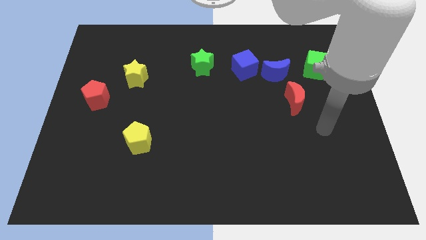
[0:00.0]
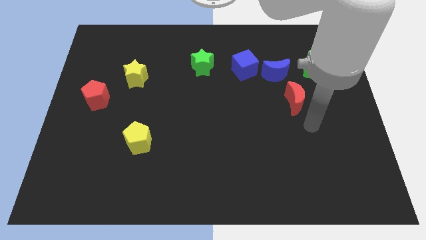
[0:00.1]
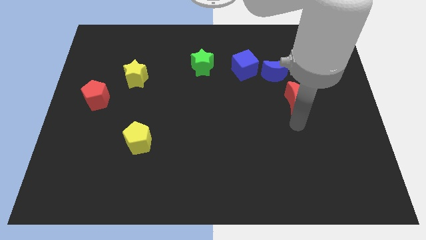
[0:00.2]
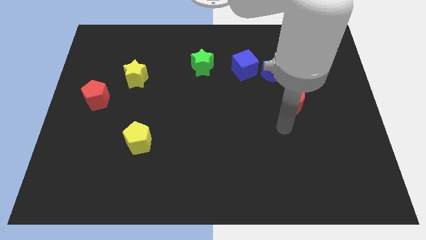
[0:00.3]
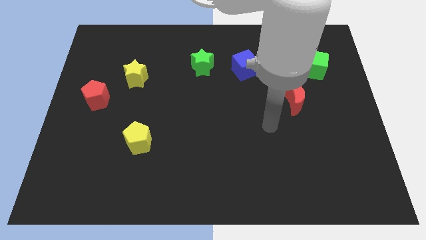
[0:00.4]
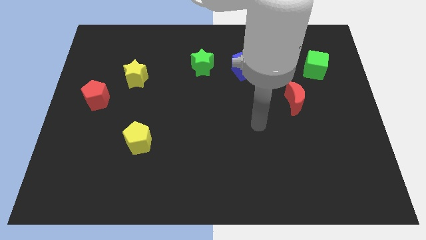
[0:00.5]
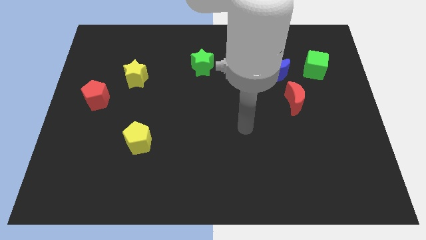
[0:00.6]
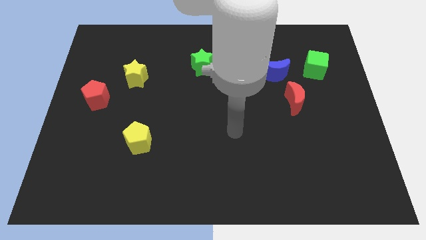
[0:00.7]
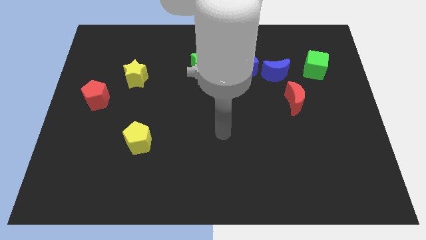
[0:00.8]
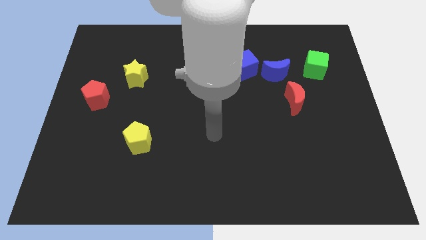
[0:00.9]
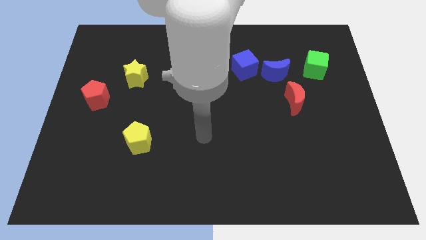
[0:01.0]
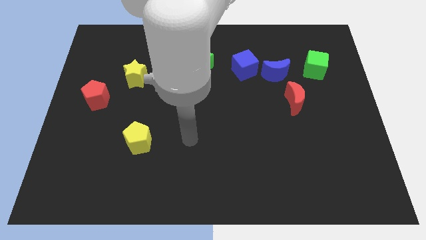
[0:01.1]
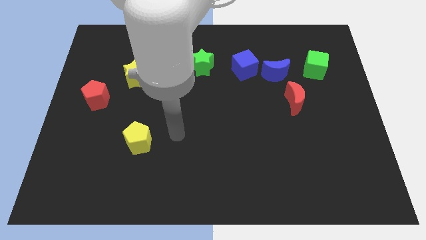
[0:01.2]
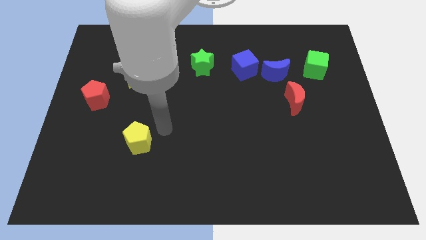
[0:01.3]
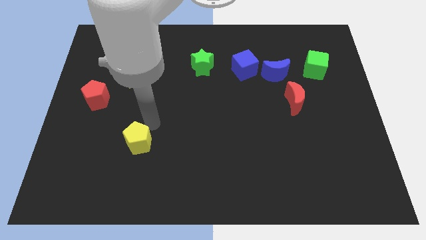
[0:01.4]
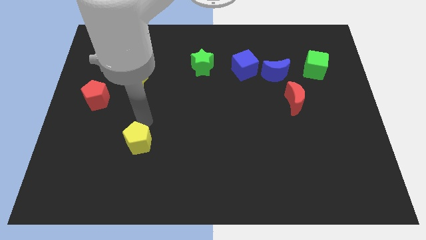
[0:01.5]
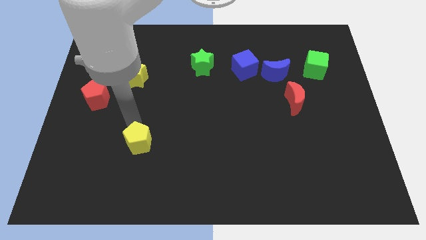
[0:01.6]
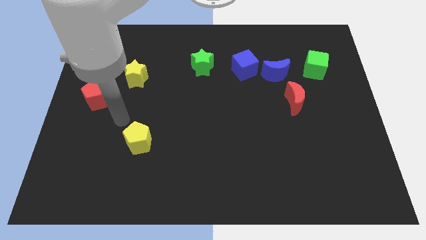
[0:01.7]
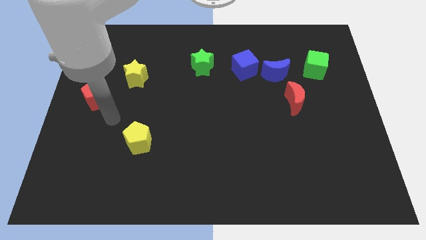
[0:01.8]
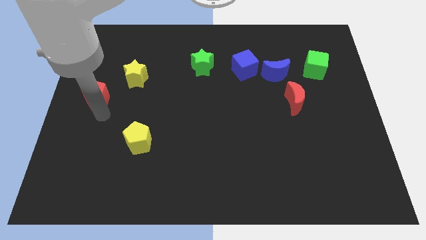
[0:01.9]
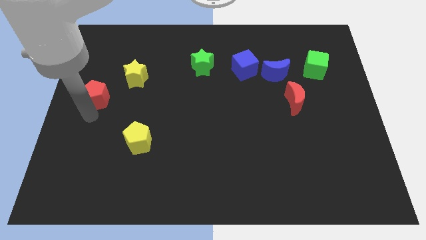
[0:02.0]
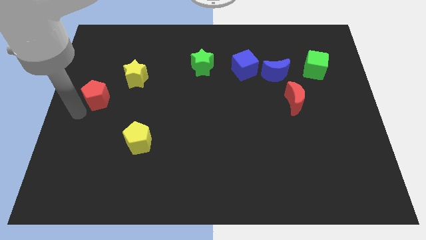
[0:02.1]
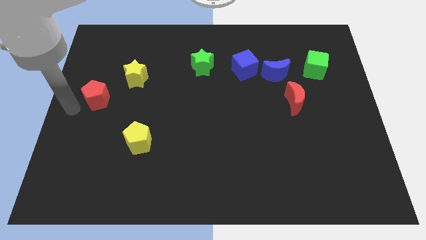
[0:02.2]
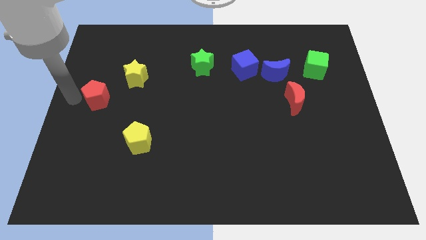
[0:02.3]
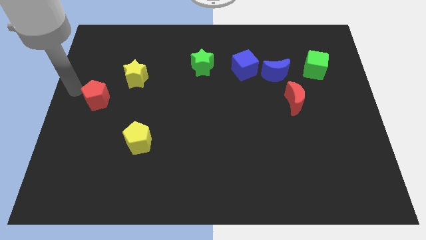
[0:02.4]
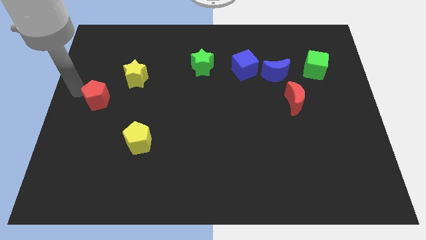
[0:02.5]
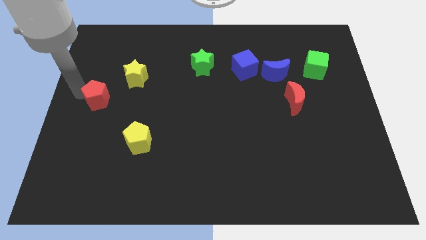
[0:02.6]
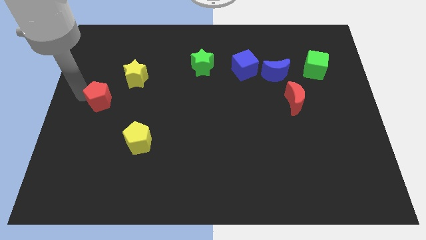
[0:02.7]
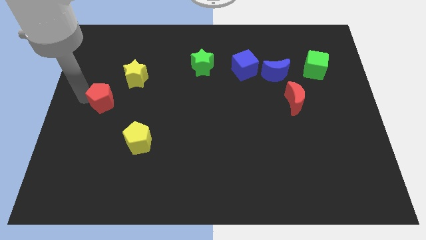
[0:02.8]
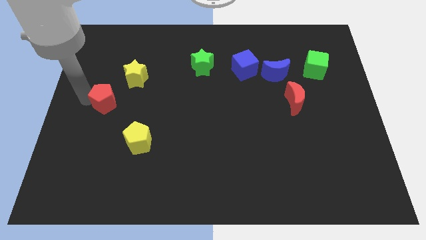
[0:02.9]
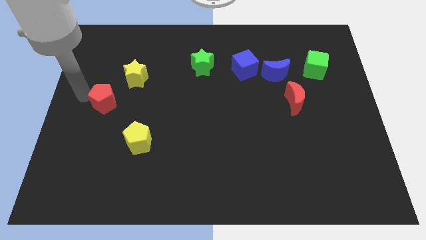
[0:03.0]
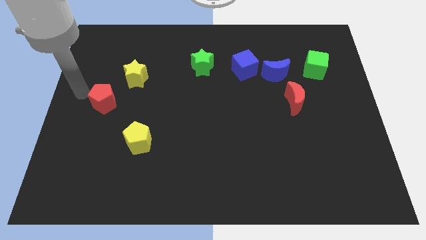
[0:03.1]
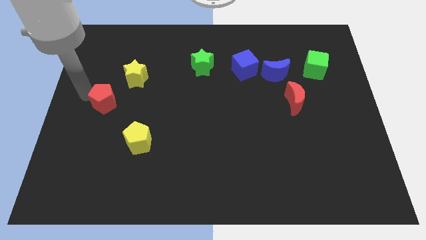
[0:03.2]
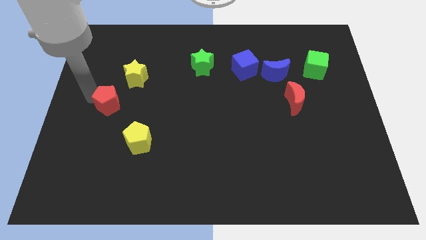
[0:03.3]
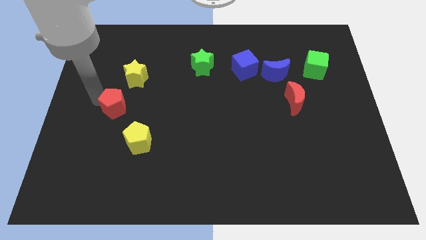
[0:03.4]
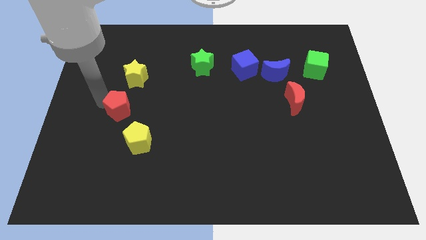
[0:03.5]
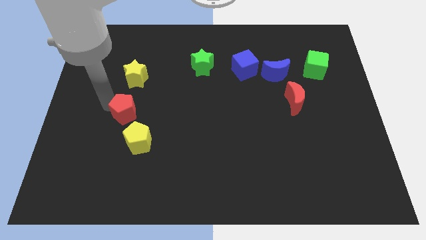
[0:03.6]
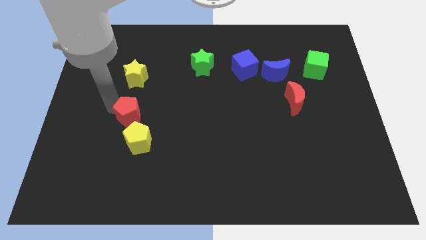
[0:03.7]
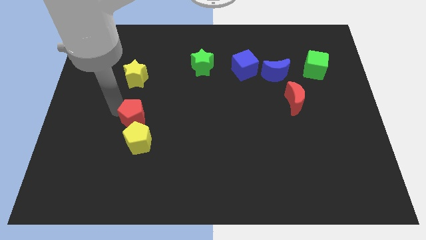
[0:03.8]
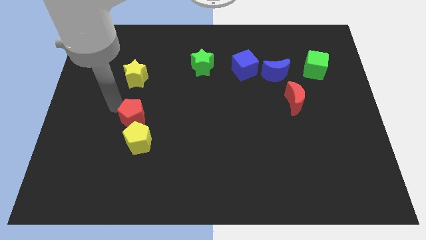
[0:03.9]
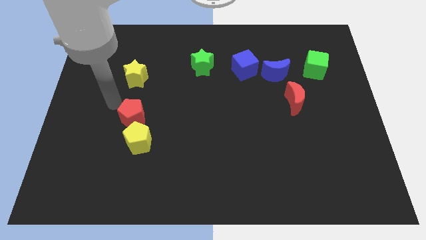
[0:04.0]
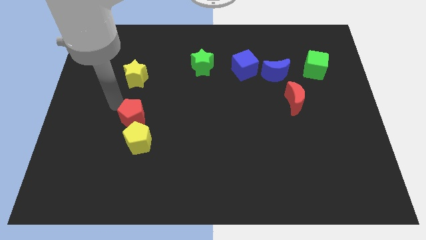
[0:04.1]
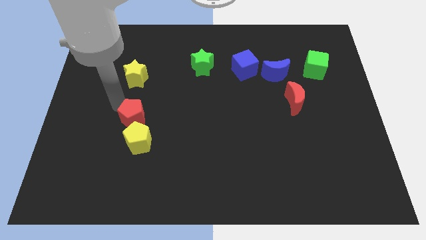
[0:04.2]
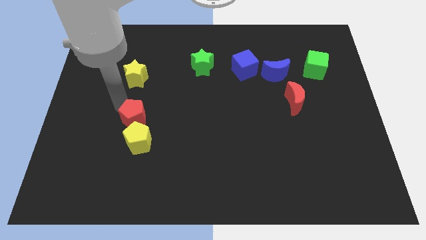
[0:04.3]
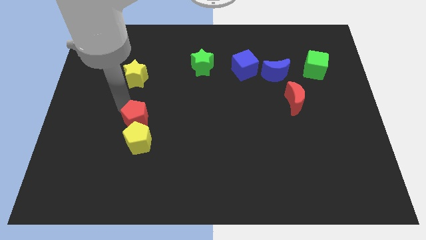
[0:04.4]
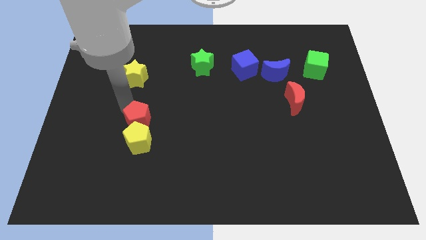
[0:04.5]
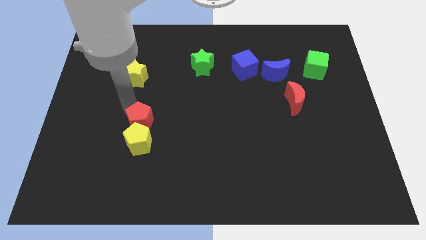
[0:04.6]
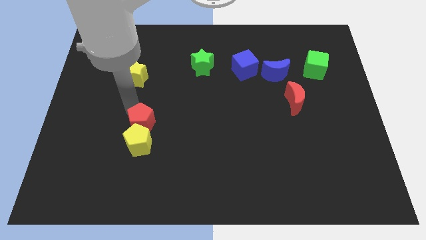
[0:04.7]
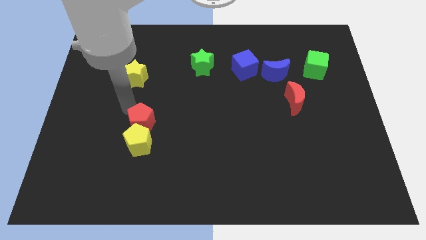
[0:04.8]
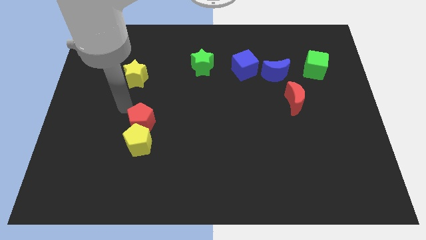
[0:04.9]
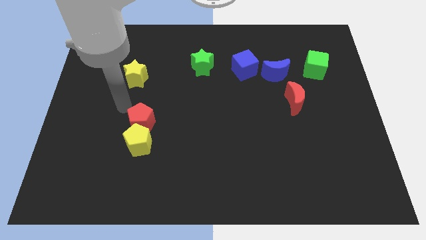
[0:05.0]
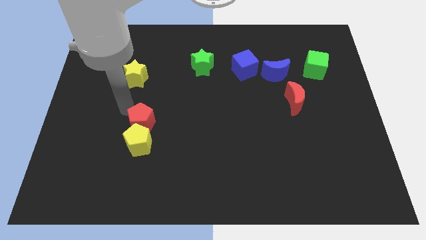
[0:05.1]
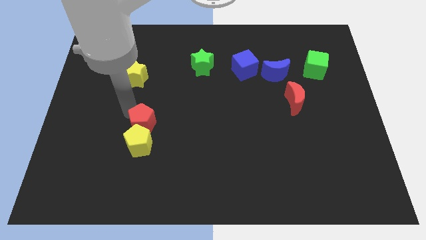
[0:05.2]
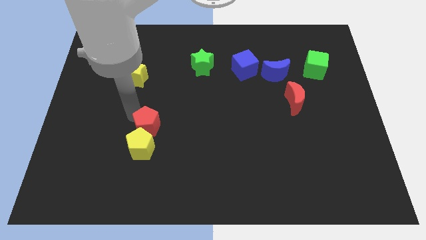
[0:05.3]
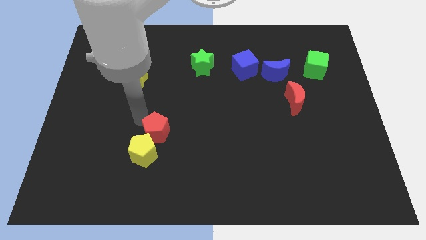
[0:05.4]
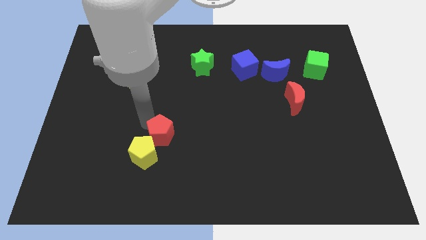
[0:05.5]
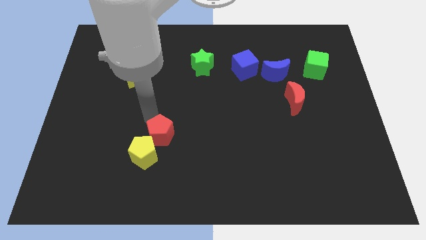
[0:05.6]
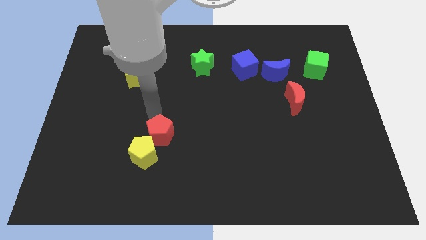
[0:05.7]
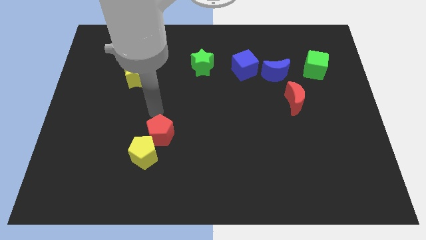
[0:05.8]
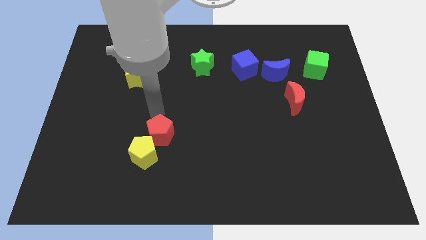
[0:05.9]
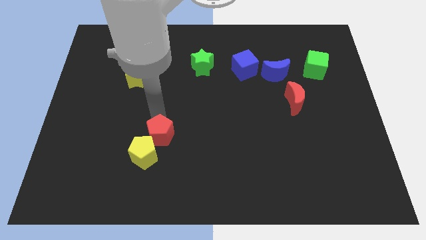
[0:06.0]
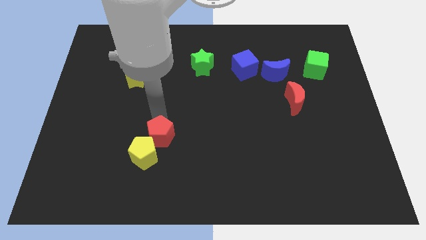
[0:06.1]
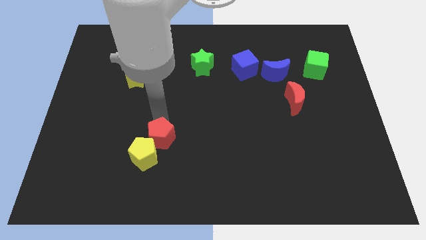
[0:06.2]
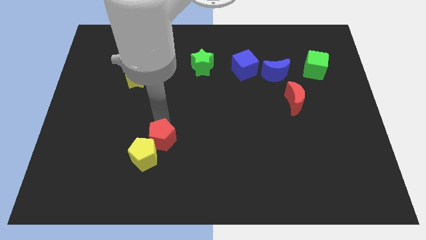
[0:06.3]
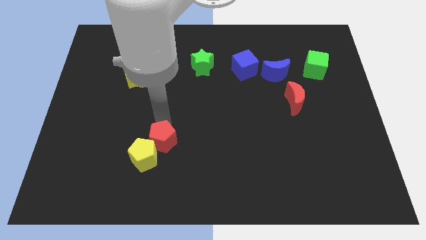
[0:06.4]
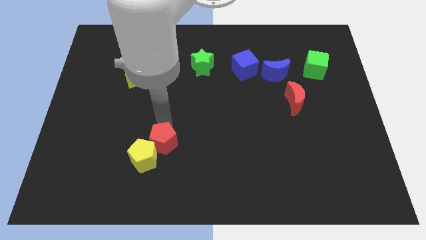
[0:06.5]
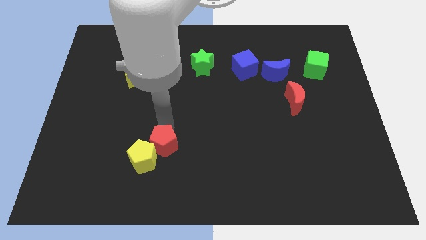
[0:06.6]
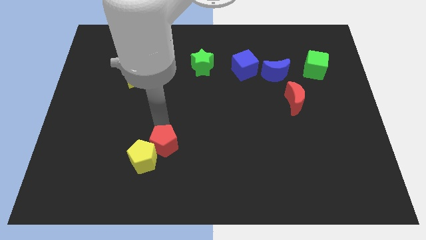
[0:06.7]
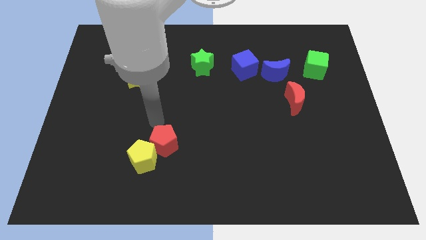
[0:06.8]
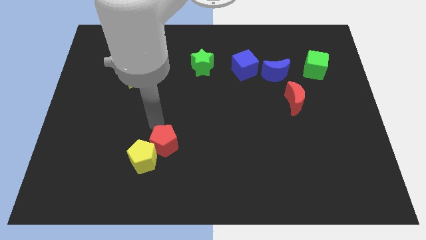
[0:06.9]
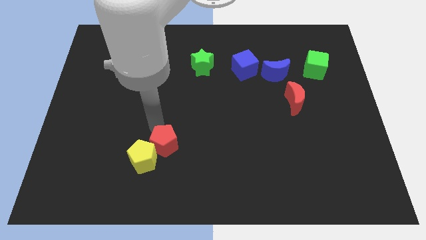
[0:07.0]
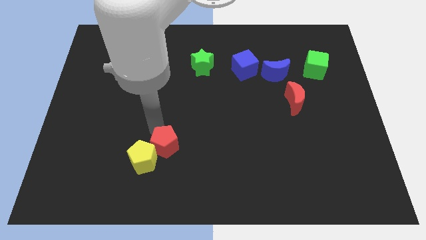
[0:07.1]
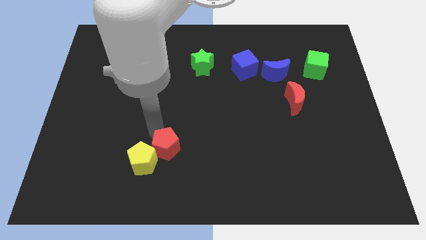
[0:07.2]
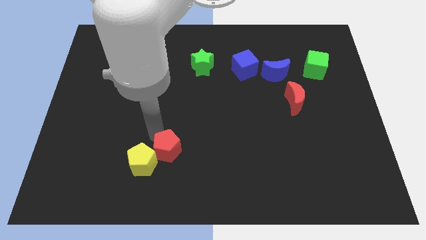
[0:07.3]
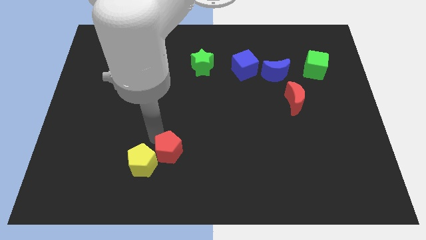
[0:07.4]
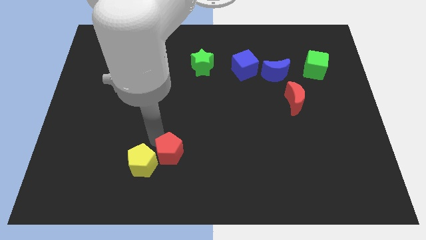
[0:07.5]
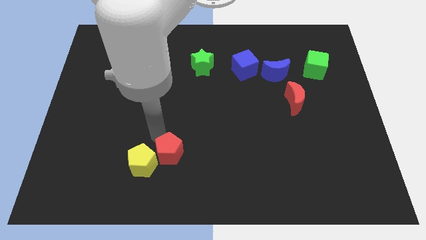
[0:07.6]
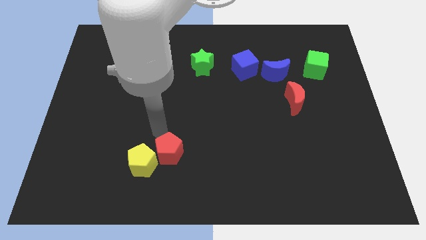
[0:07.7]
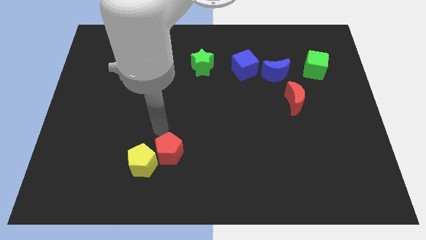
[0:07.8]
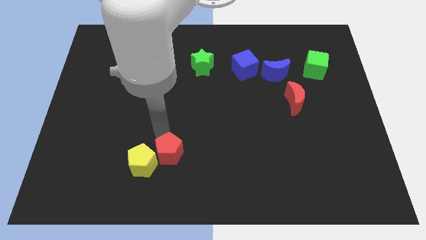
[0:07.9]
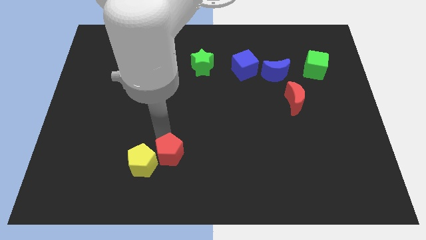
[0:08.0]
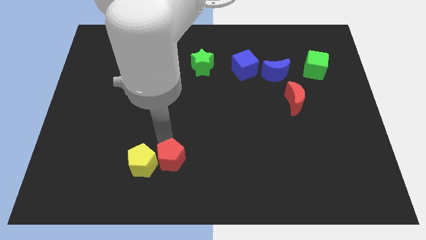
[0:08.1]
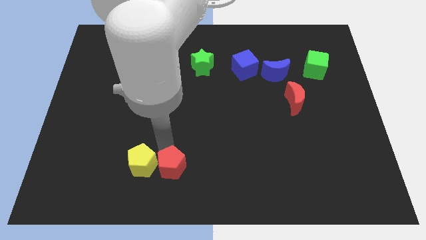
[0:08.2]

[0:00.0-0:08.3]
push the red pentagon to the bottom side
